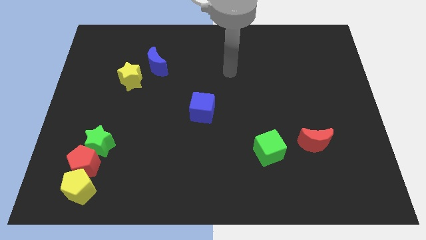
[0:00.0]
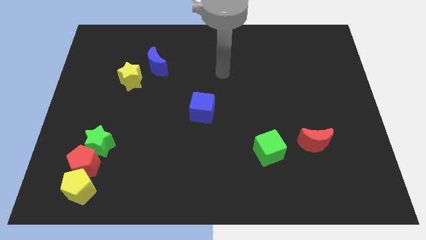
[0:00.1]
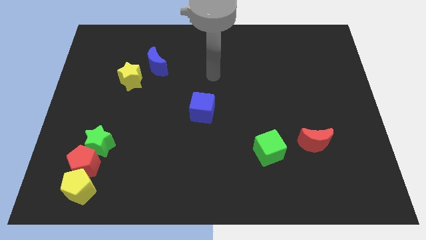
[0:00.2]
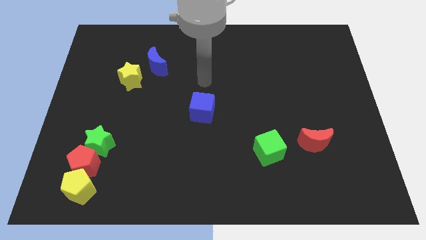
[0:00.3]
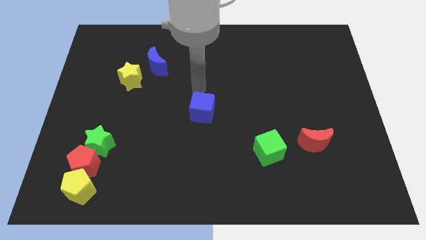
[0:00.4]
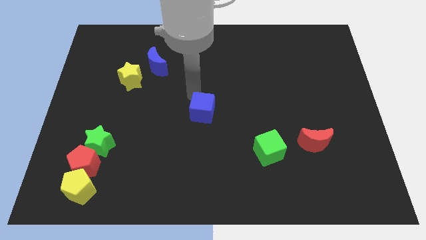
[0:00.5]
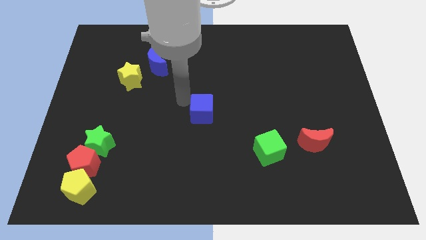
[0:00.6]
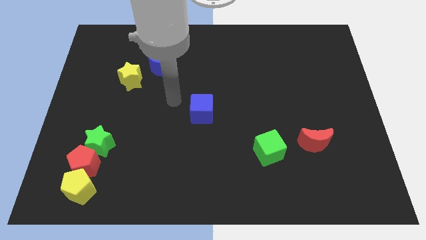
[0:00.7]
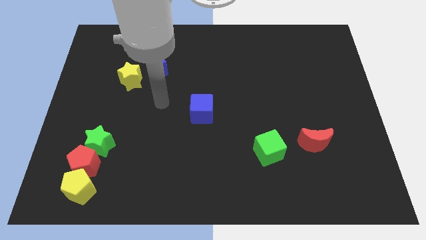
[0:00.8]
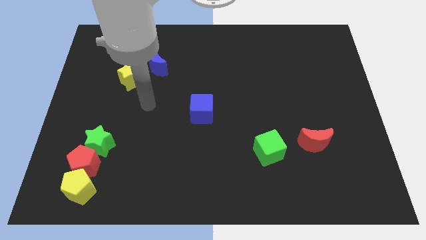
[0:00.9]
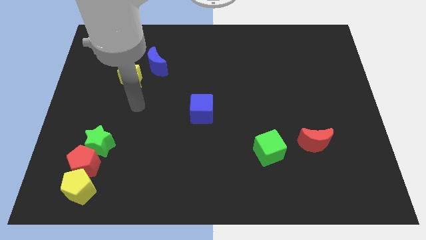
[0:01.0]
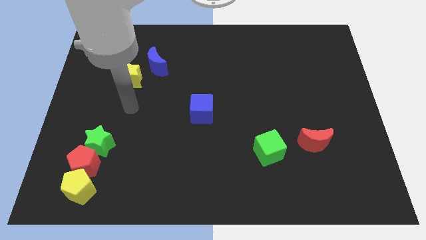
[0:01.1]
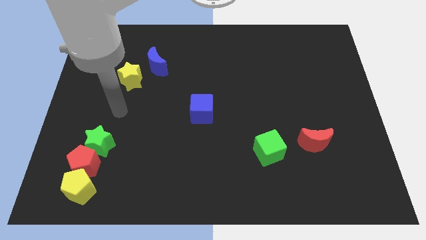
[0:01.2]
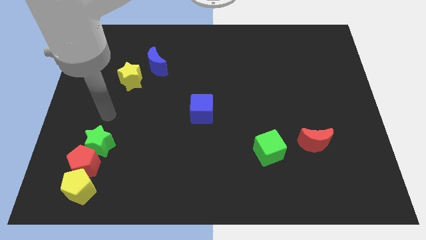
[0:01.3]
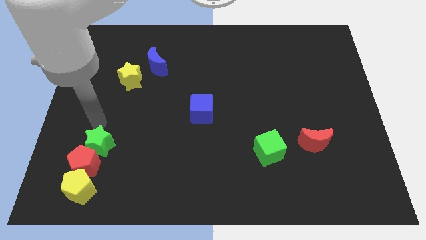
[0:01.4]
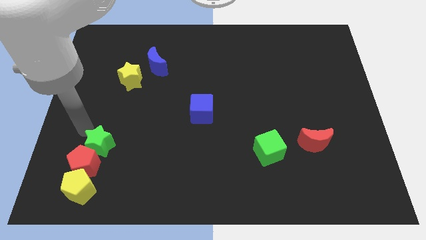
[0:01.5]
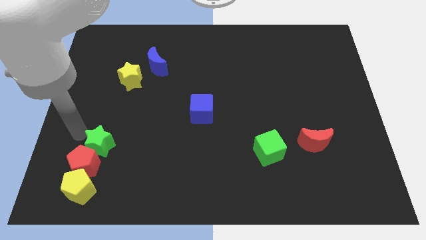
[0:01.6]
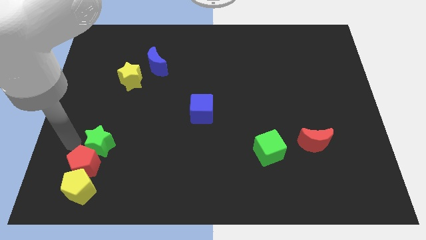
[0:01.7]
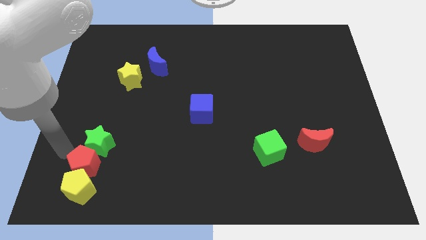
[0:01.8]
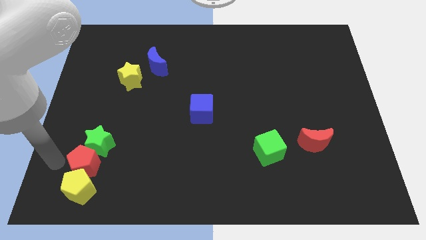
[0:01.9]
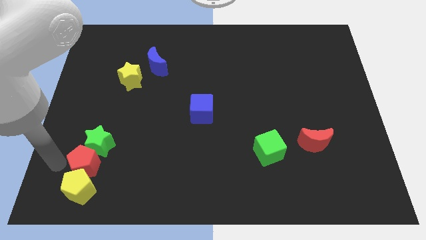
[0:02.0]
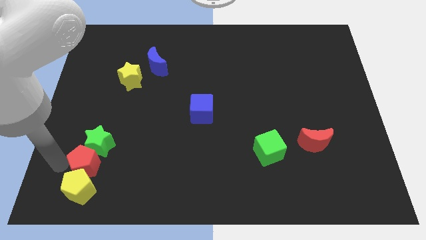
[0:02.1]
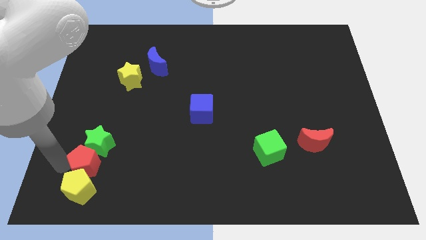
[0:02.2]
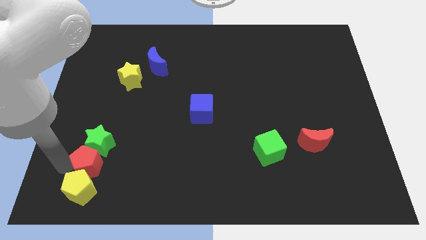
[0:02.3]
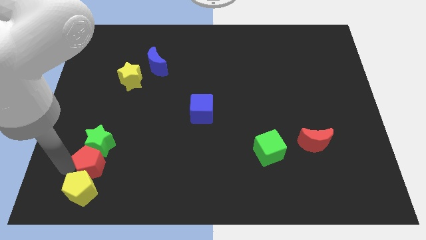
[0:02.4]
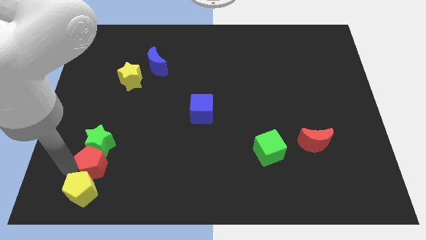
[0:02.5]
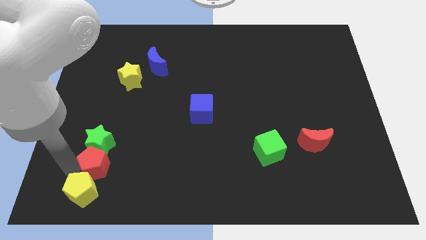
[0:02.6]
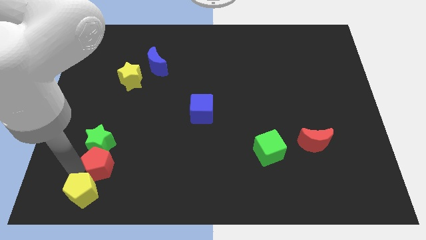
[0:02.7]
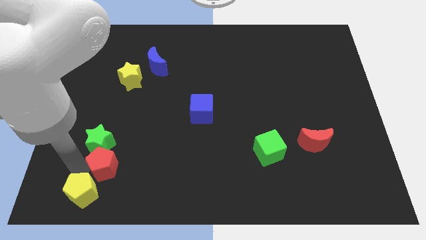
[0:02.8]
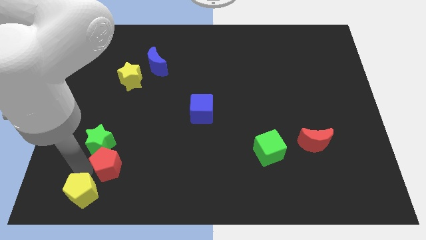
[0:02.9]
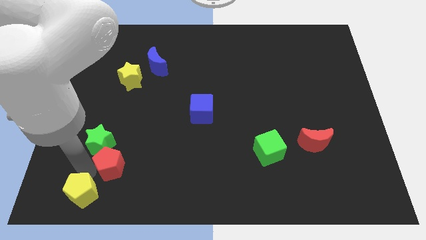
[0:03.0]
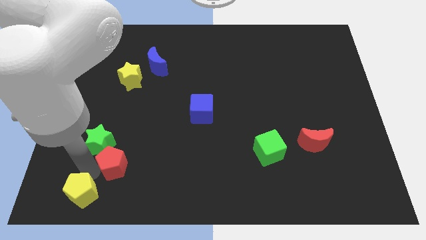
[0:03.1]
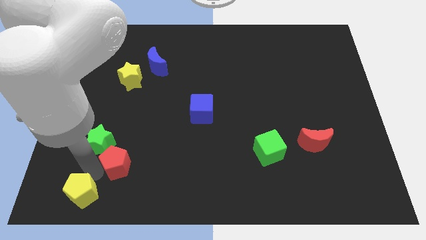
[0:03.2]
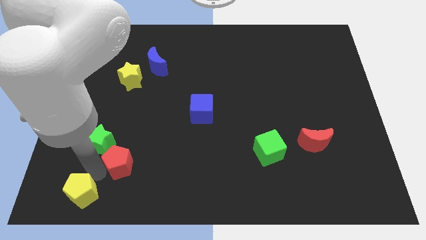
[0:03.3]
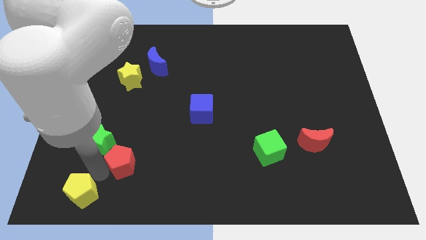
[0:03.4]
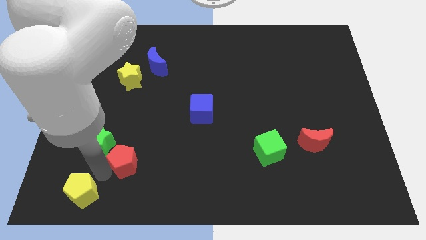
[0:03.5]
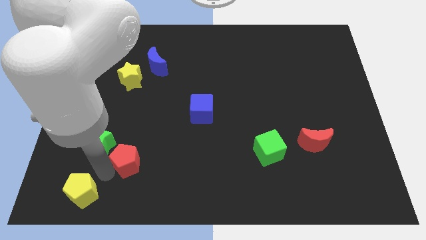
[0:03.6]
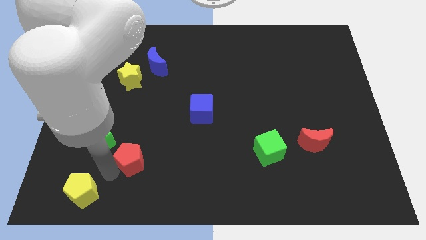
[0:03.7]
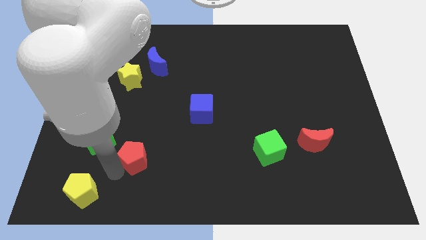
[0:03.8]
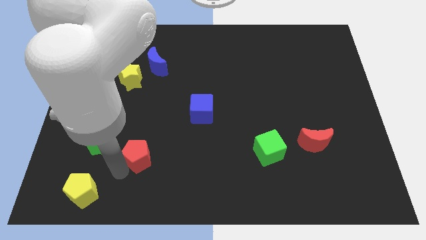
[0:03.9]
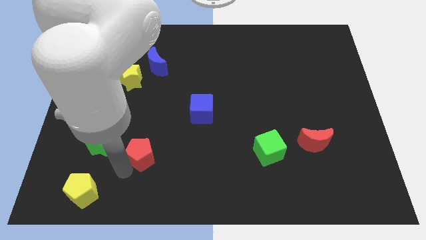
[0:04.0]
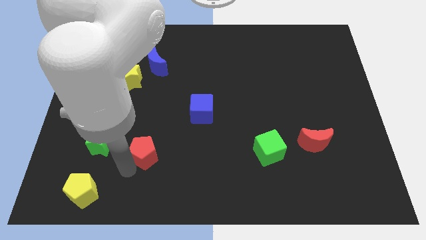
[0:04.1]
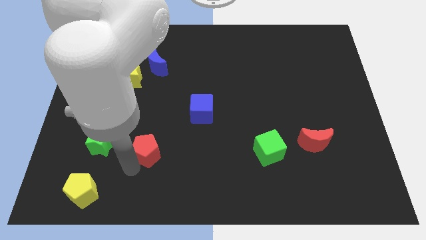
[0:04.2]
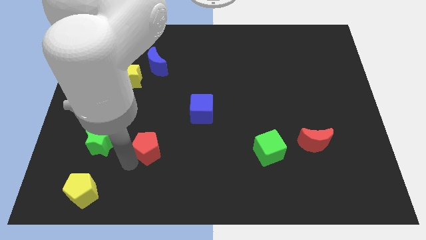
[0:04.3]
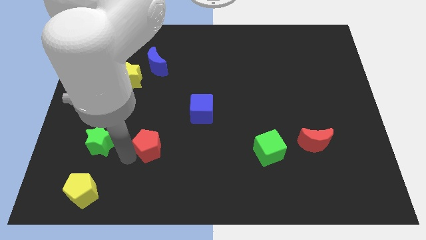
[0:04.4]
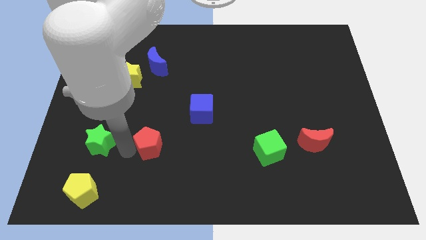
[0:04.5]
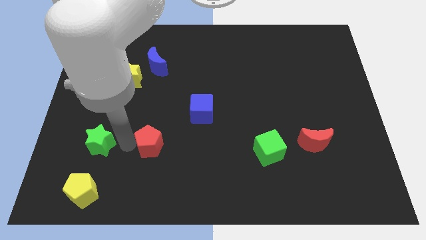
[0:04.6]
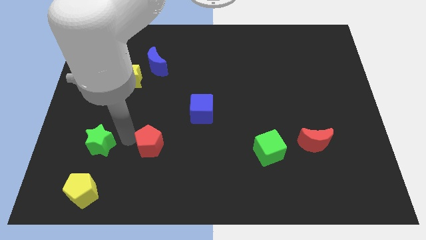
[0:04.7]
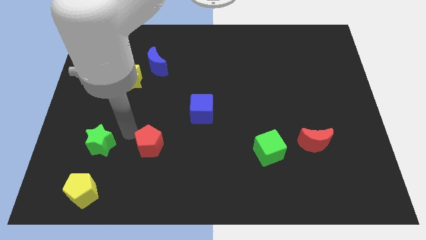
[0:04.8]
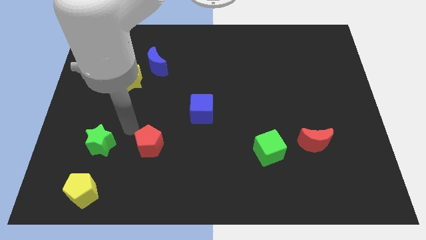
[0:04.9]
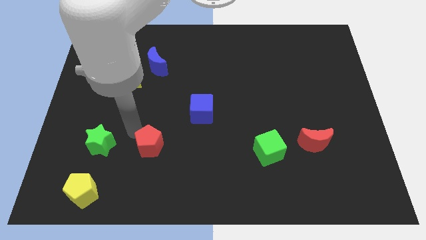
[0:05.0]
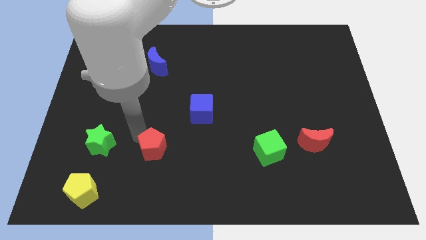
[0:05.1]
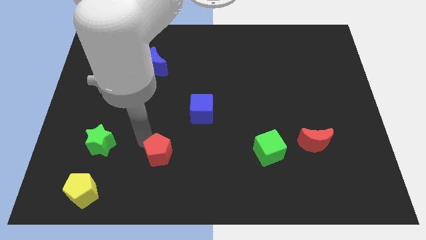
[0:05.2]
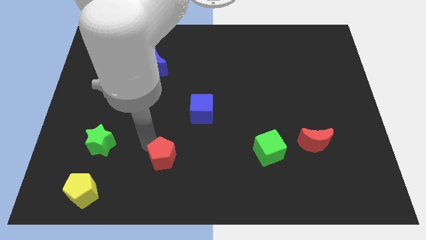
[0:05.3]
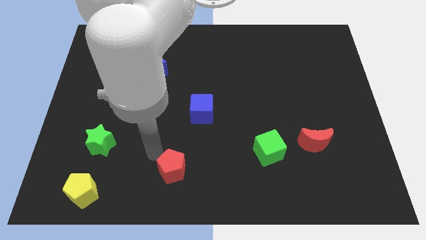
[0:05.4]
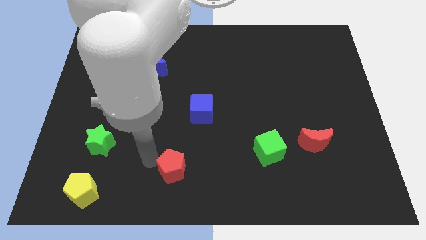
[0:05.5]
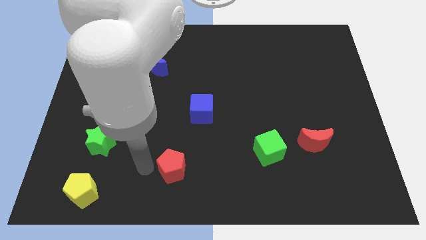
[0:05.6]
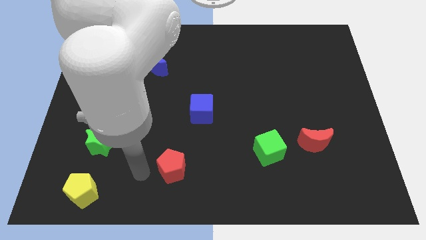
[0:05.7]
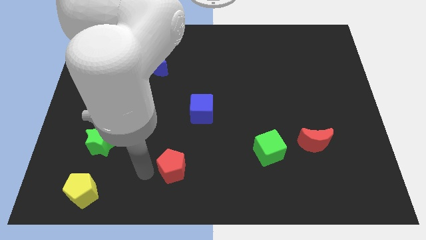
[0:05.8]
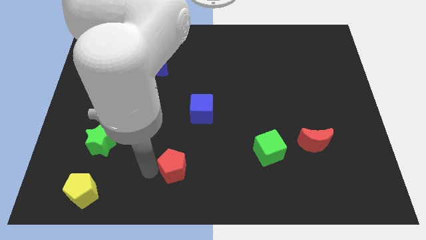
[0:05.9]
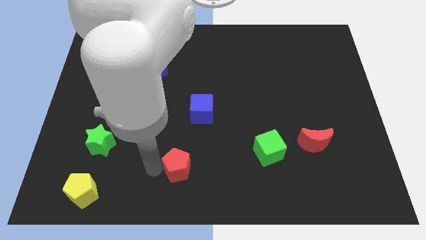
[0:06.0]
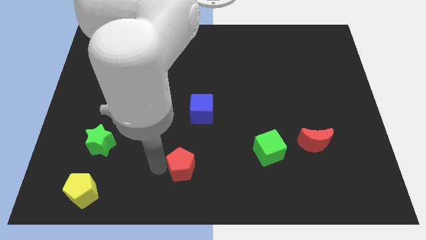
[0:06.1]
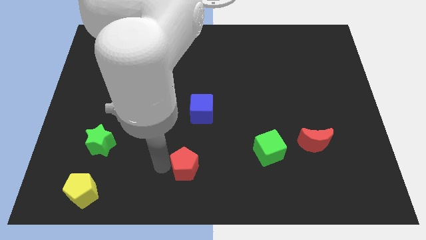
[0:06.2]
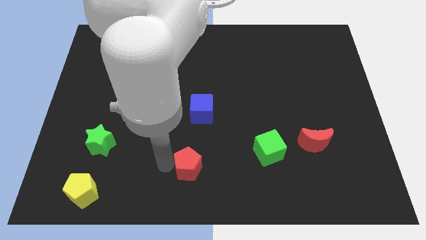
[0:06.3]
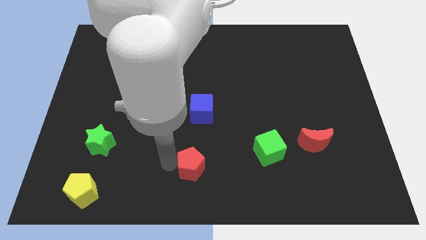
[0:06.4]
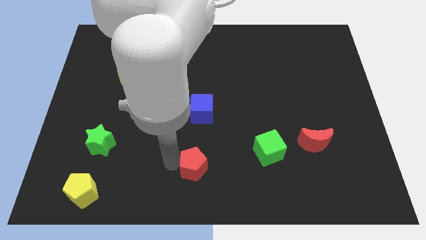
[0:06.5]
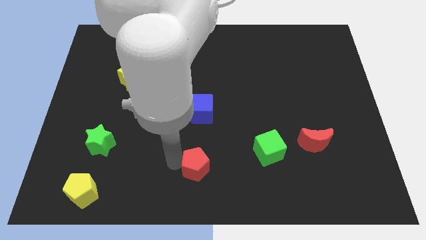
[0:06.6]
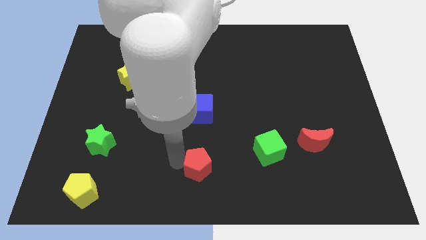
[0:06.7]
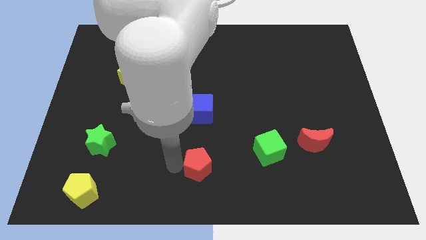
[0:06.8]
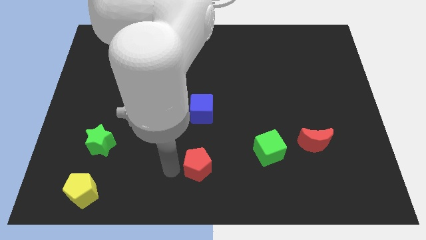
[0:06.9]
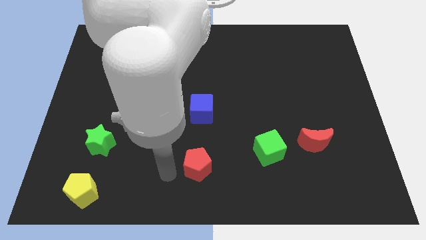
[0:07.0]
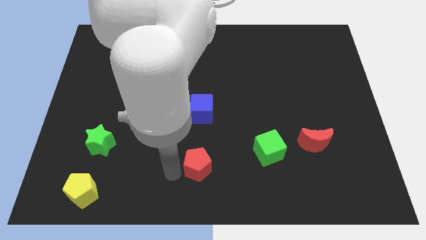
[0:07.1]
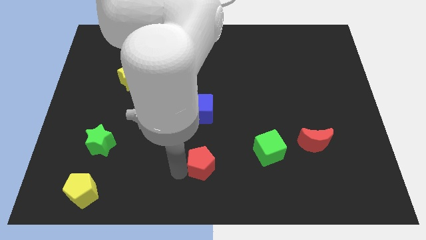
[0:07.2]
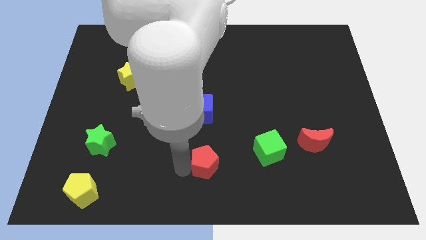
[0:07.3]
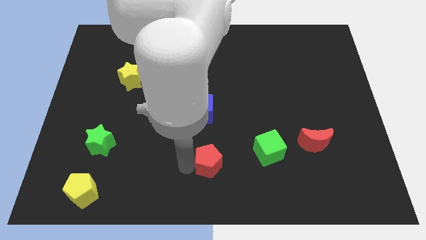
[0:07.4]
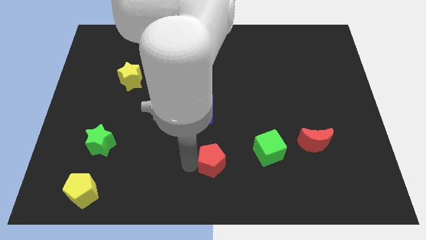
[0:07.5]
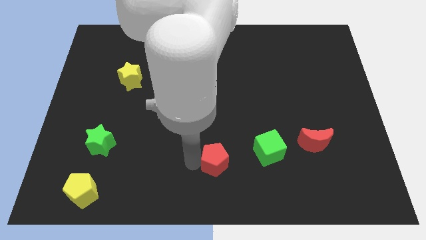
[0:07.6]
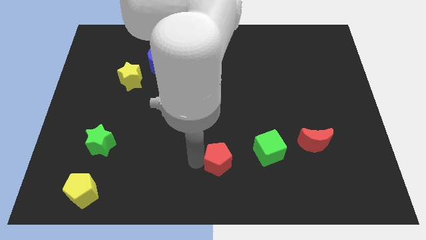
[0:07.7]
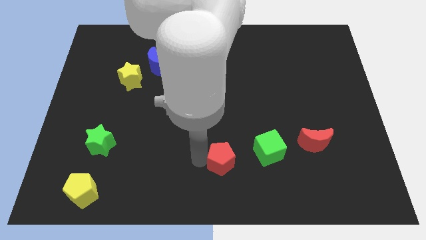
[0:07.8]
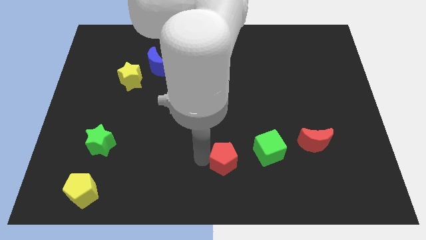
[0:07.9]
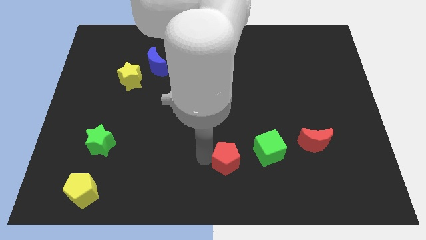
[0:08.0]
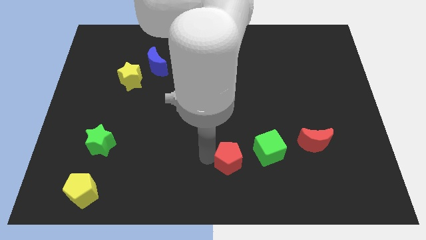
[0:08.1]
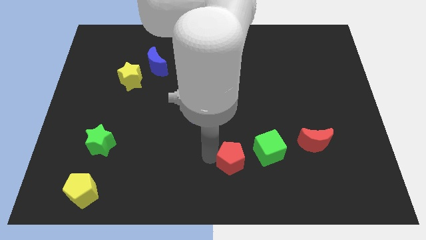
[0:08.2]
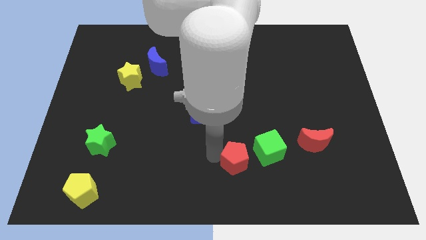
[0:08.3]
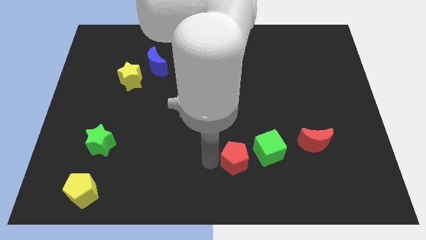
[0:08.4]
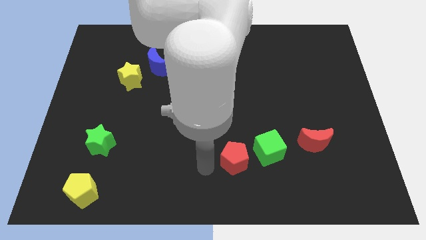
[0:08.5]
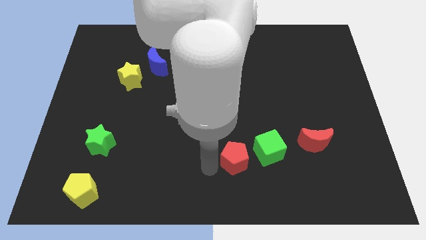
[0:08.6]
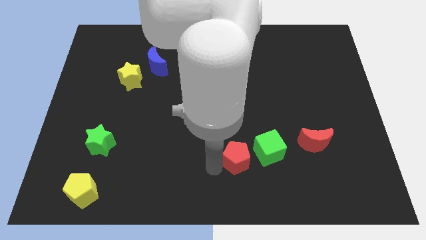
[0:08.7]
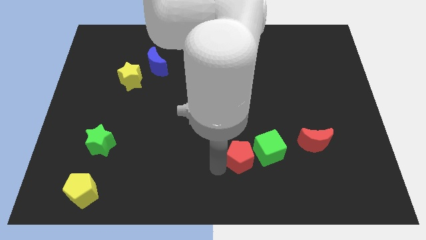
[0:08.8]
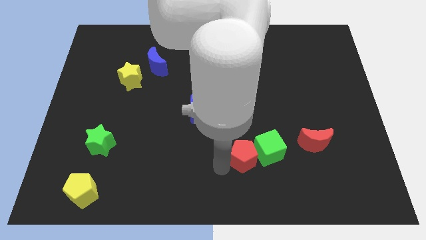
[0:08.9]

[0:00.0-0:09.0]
put the red pentagon to the green cube
